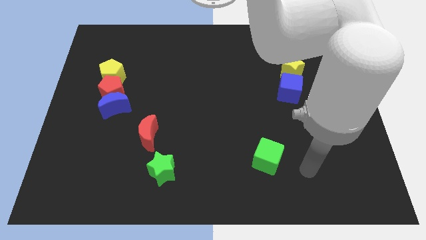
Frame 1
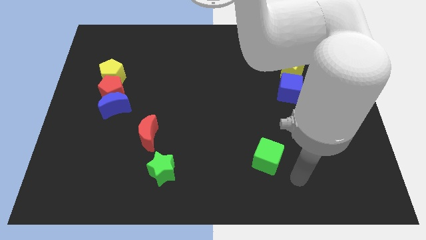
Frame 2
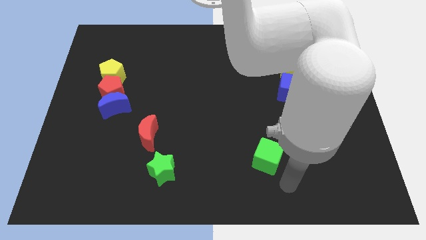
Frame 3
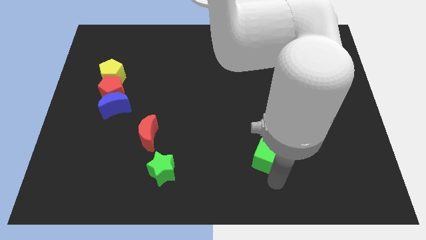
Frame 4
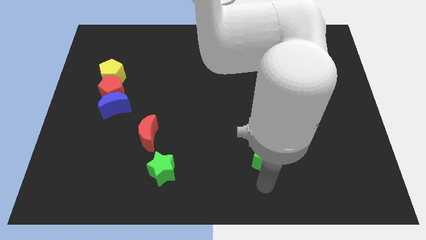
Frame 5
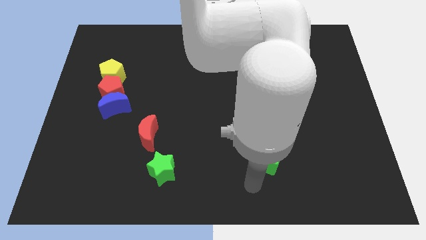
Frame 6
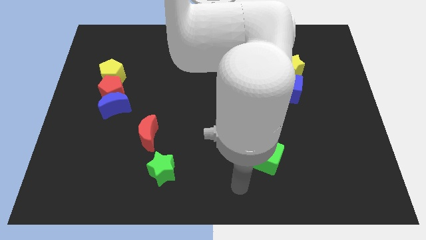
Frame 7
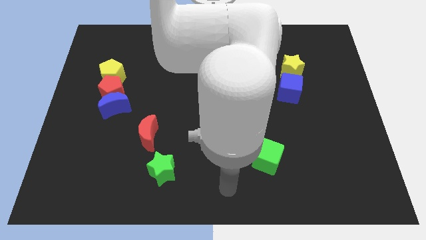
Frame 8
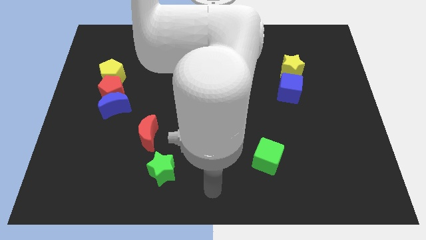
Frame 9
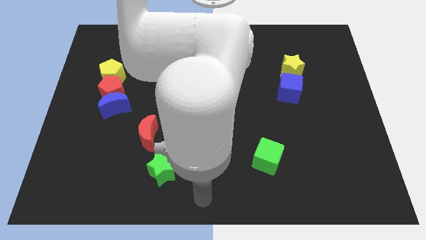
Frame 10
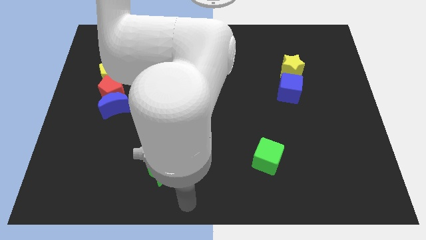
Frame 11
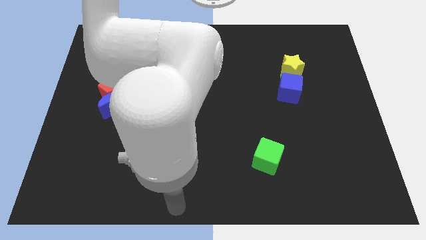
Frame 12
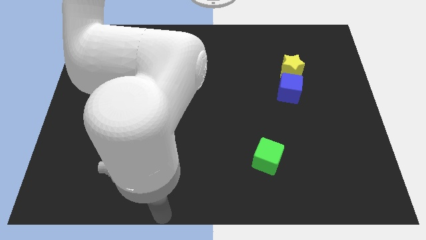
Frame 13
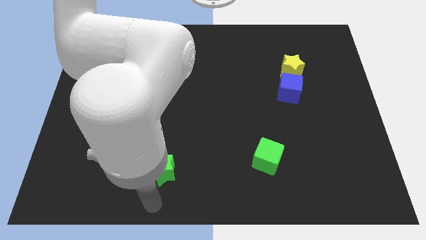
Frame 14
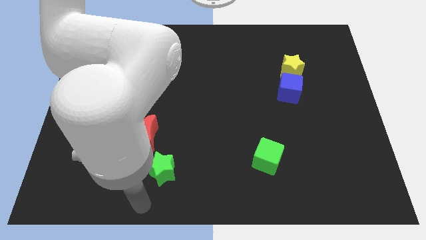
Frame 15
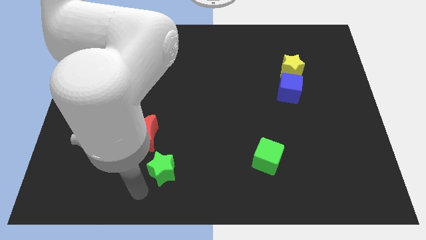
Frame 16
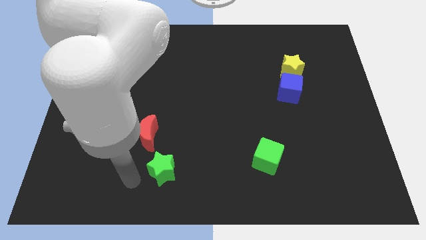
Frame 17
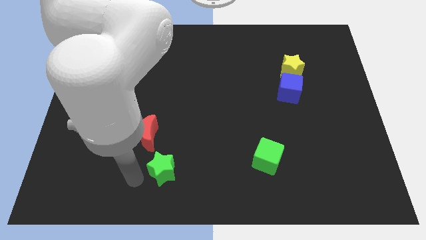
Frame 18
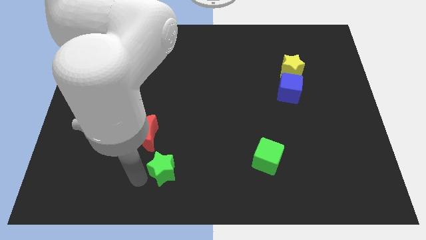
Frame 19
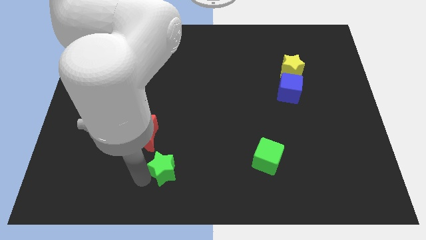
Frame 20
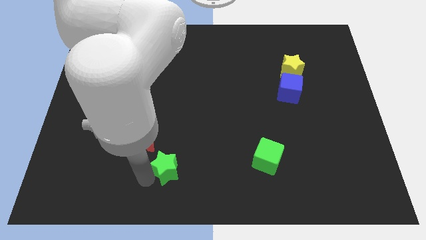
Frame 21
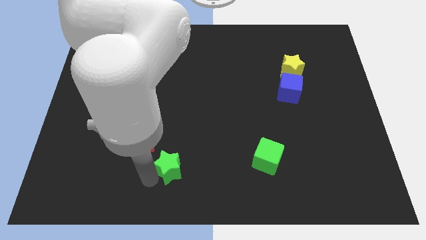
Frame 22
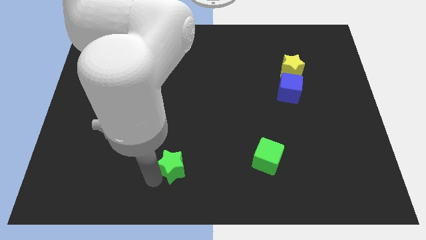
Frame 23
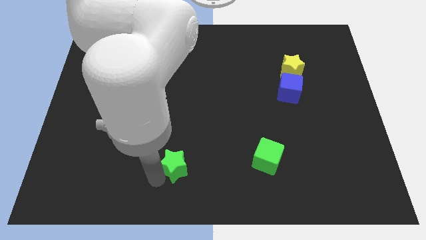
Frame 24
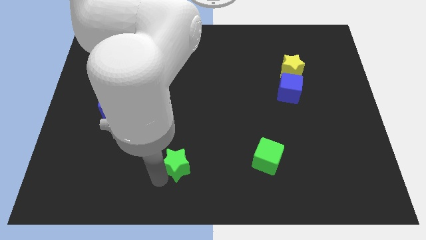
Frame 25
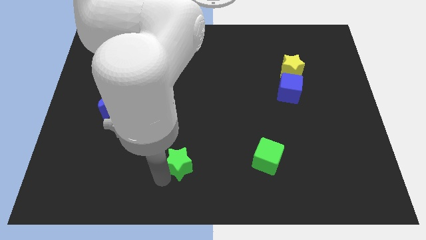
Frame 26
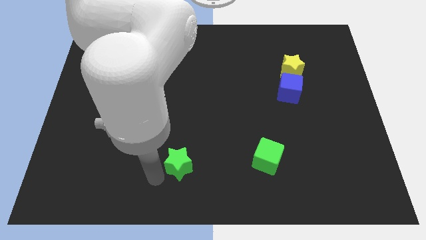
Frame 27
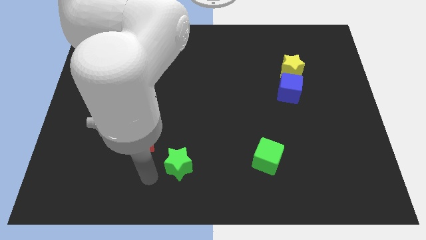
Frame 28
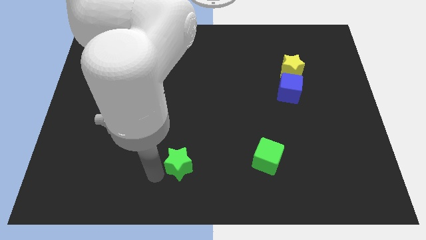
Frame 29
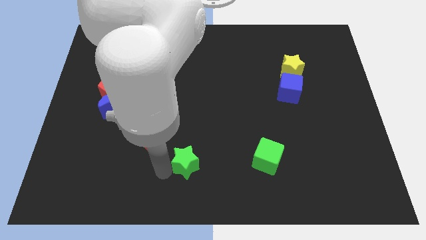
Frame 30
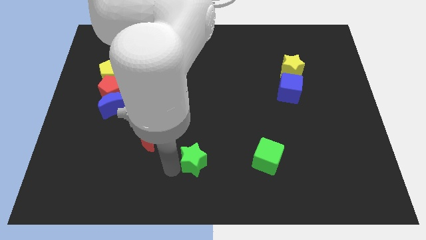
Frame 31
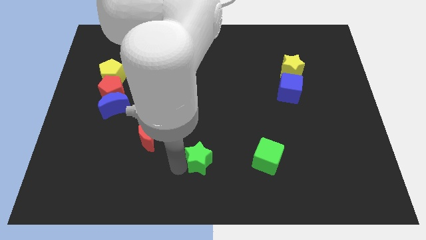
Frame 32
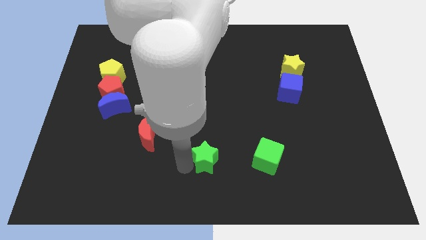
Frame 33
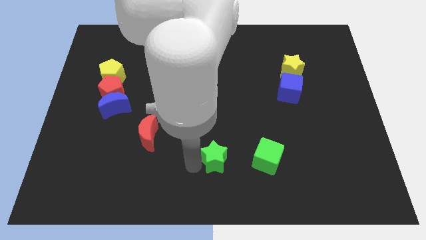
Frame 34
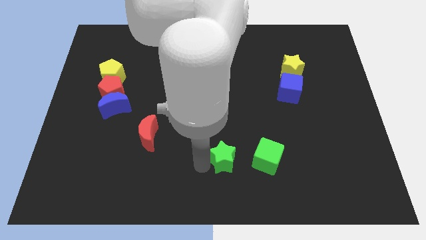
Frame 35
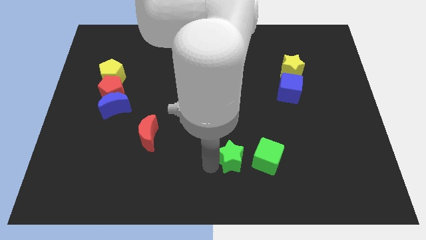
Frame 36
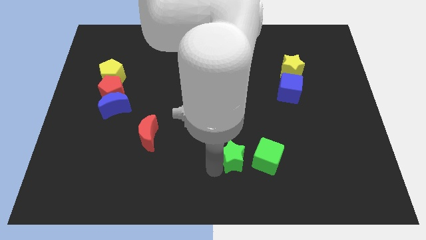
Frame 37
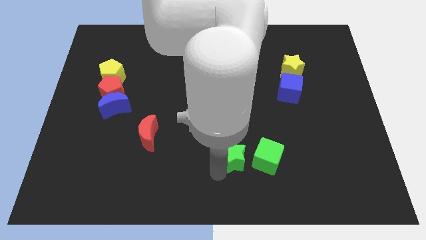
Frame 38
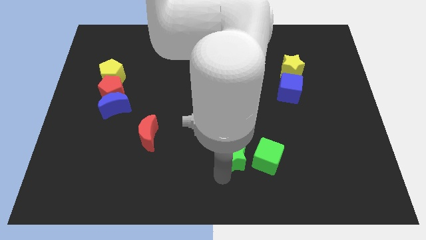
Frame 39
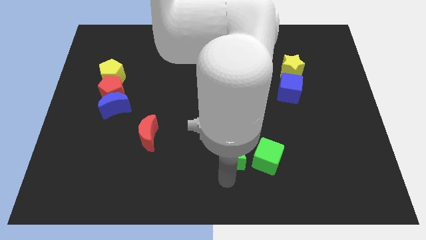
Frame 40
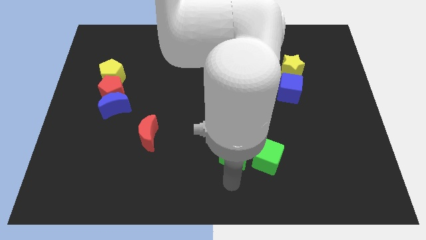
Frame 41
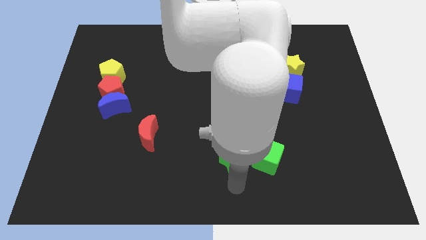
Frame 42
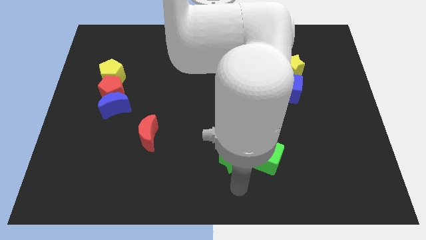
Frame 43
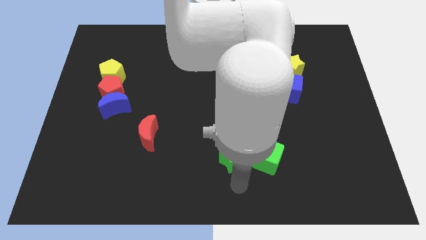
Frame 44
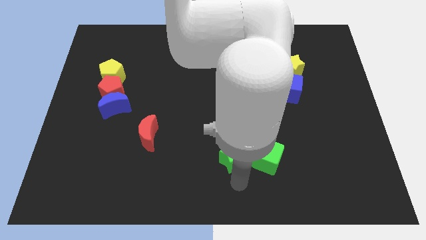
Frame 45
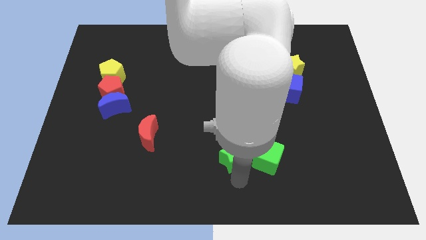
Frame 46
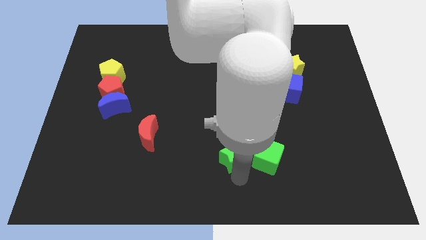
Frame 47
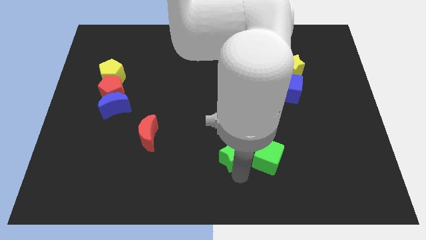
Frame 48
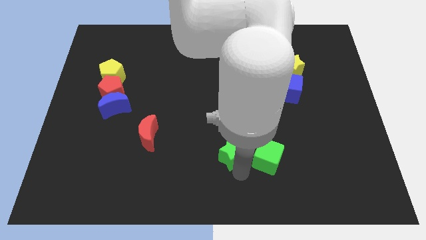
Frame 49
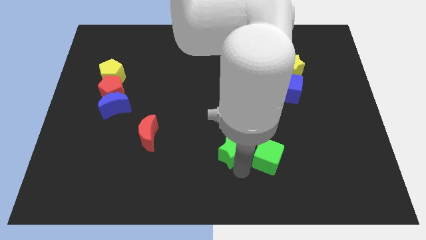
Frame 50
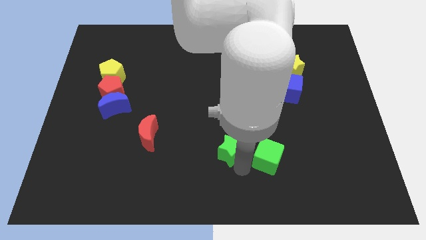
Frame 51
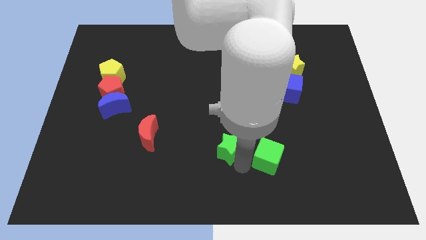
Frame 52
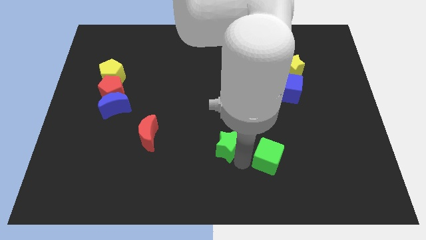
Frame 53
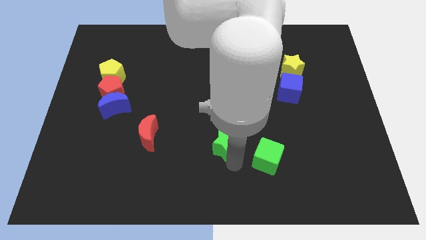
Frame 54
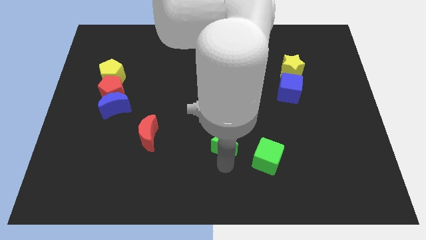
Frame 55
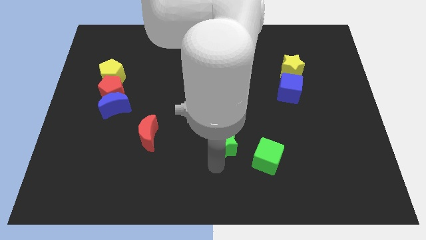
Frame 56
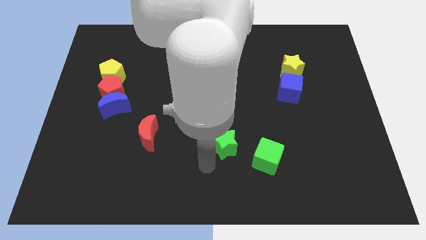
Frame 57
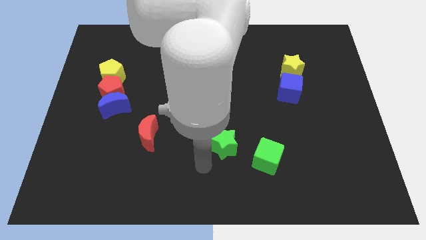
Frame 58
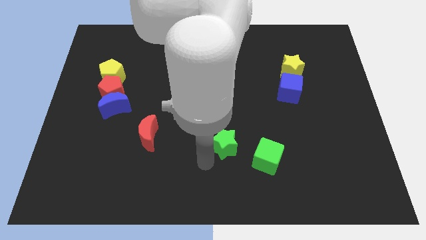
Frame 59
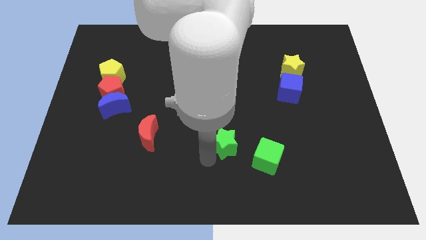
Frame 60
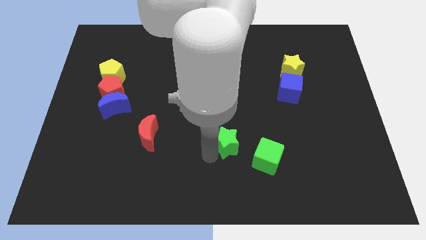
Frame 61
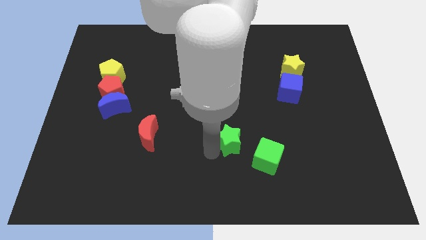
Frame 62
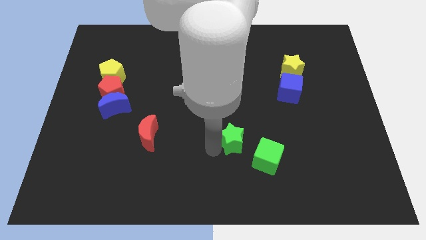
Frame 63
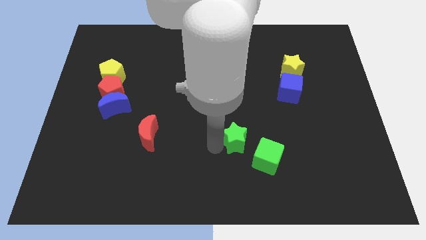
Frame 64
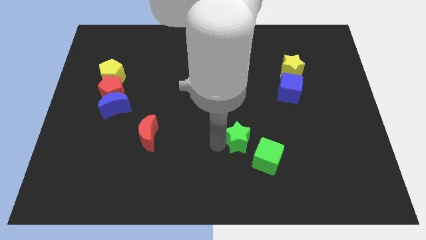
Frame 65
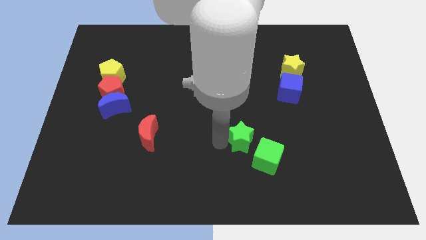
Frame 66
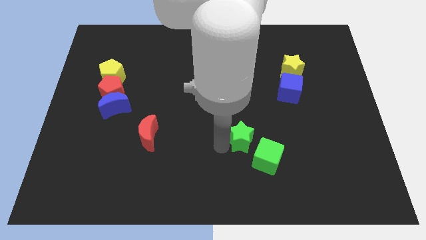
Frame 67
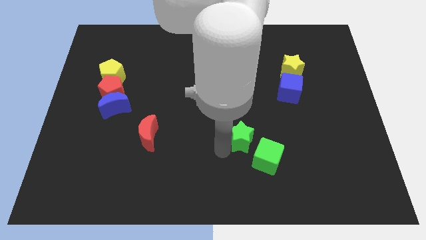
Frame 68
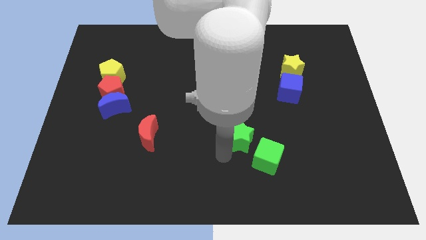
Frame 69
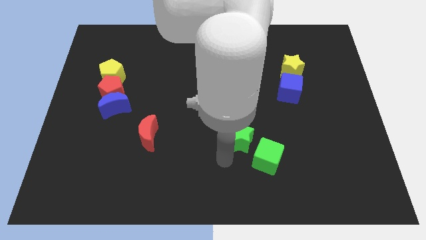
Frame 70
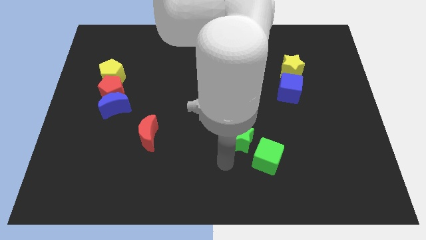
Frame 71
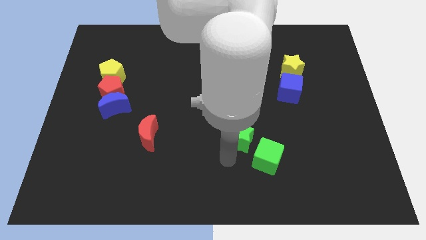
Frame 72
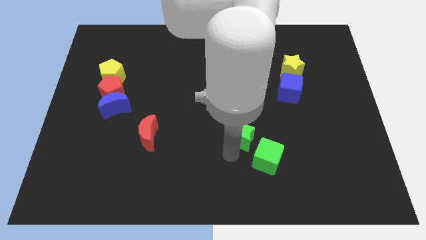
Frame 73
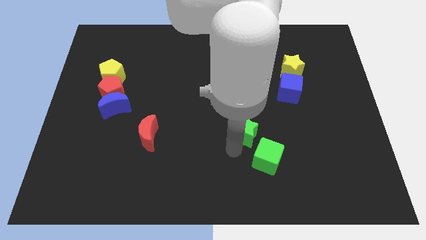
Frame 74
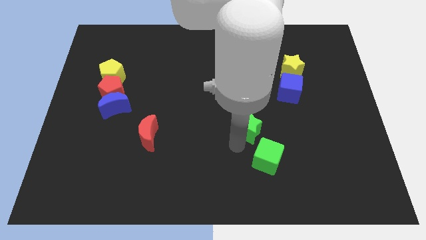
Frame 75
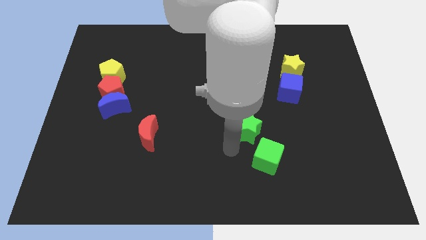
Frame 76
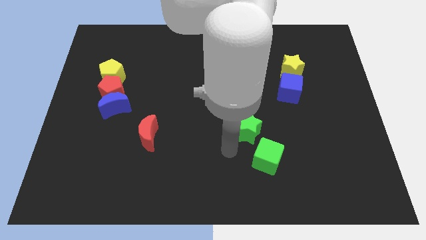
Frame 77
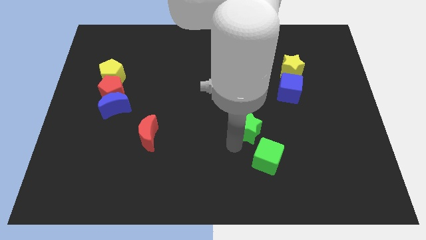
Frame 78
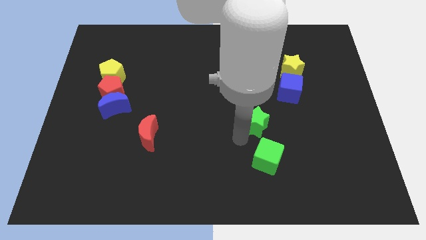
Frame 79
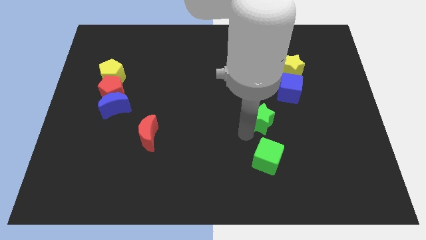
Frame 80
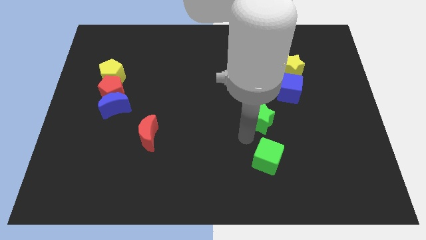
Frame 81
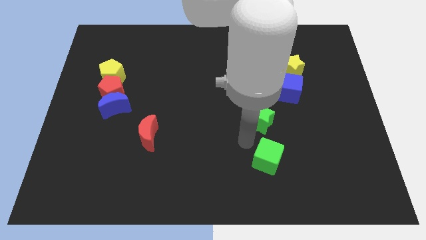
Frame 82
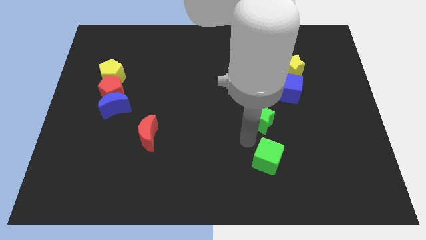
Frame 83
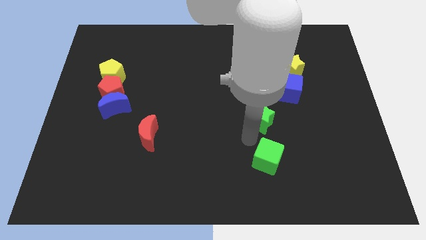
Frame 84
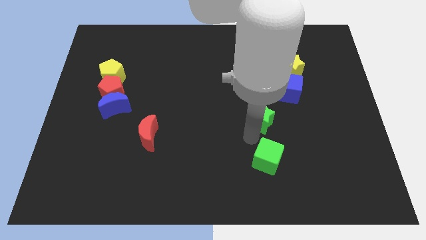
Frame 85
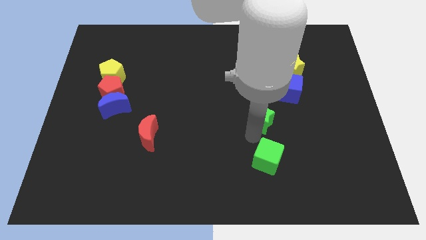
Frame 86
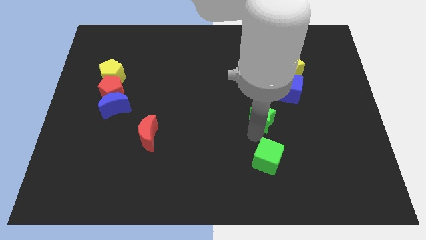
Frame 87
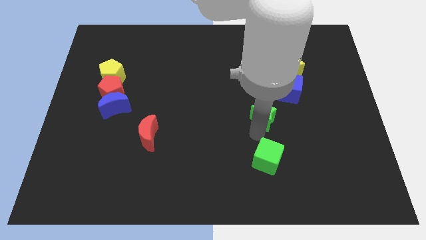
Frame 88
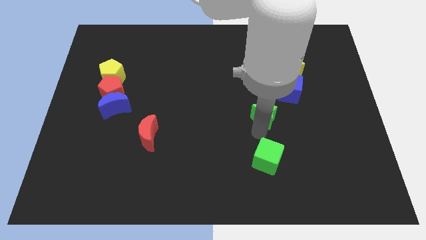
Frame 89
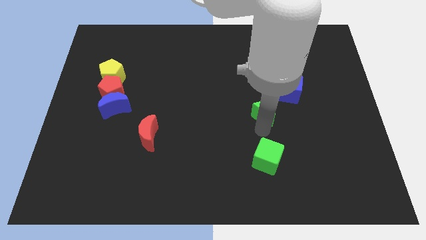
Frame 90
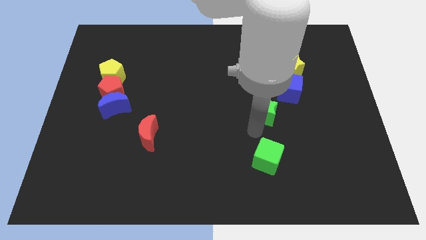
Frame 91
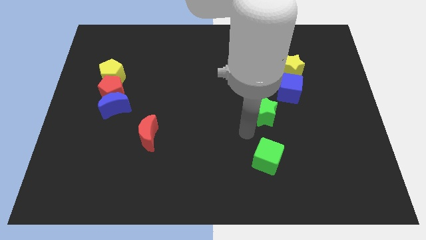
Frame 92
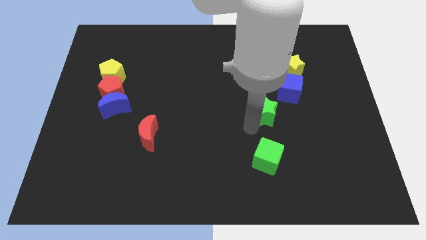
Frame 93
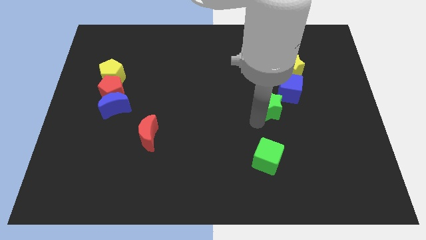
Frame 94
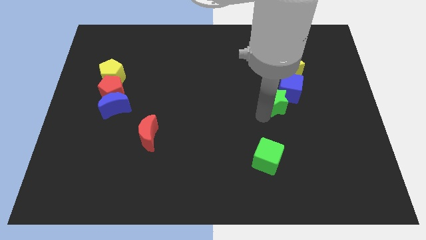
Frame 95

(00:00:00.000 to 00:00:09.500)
slide the green star towards the blue cube
